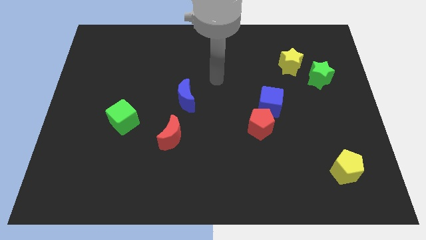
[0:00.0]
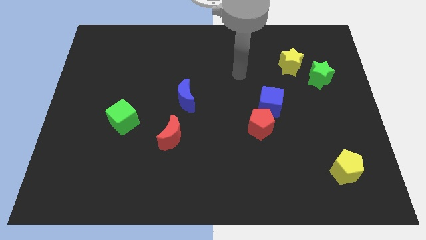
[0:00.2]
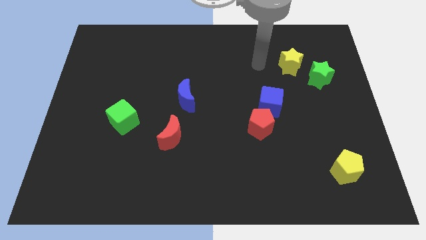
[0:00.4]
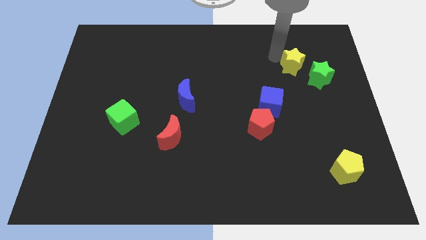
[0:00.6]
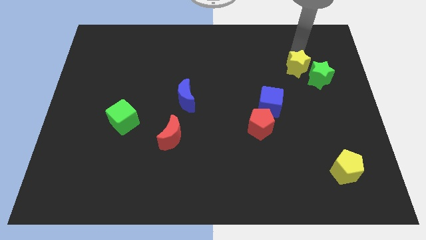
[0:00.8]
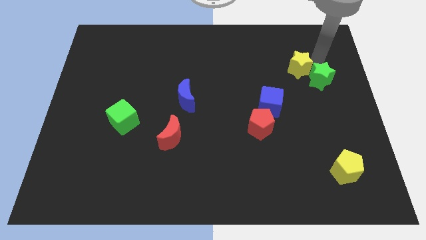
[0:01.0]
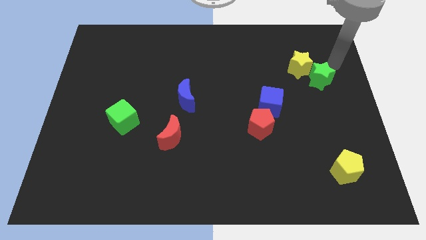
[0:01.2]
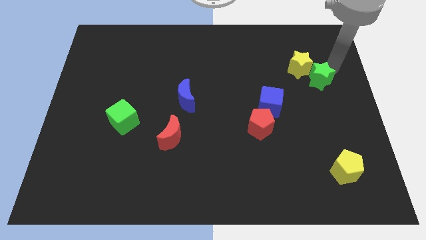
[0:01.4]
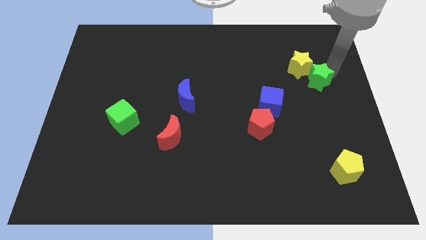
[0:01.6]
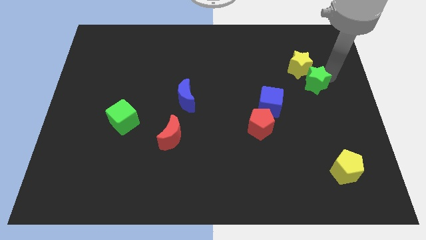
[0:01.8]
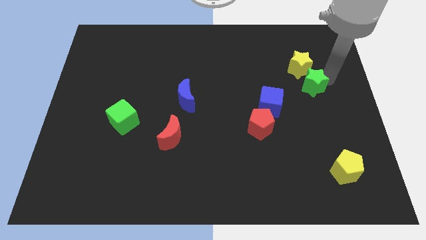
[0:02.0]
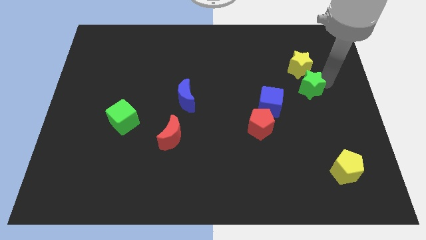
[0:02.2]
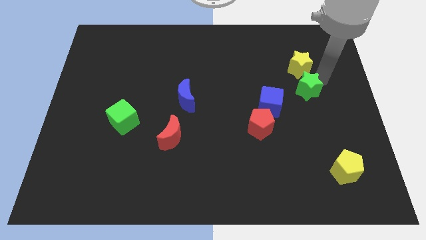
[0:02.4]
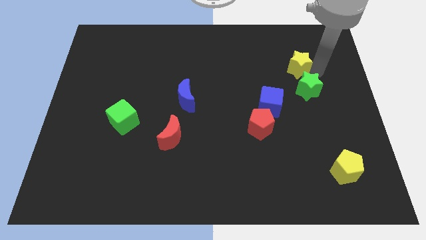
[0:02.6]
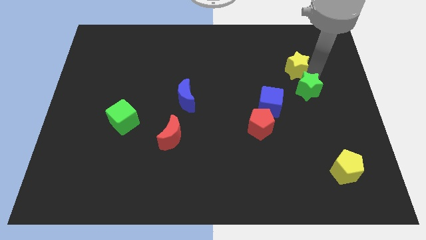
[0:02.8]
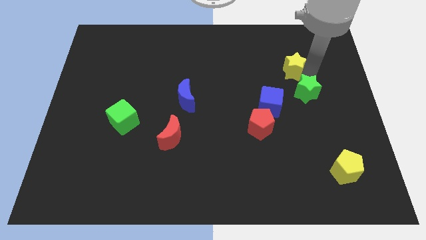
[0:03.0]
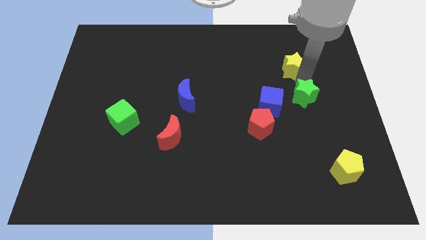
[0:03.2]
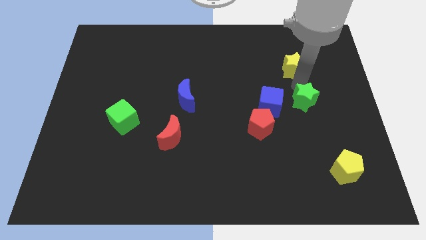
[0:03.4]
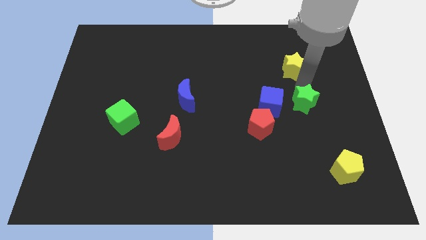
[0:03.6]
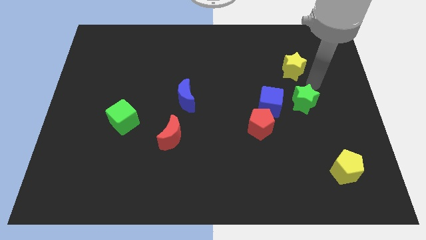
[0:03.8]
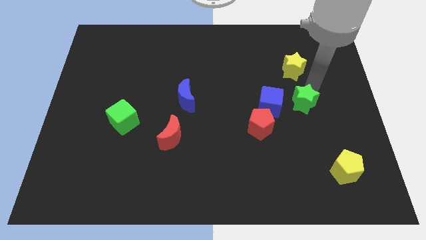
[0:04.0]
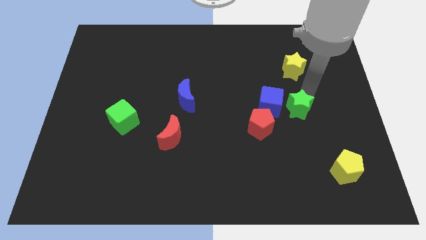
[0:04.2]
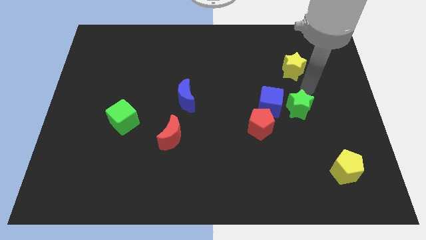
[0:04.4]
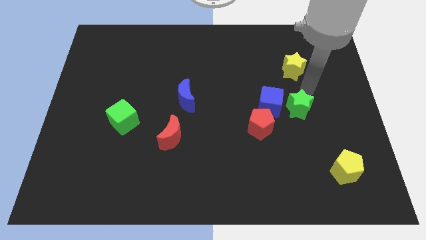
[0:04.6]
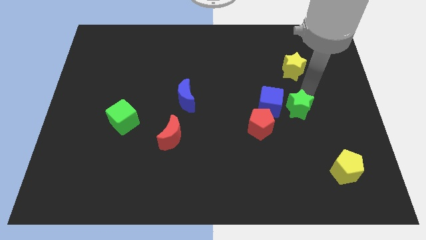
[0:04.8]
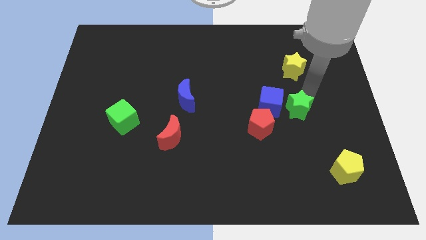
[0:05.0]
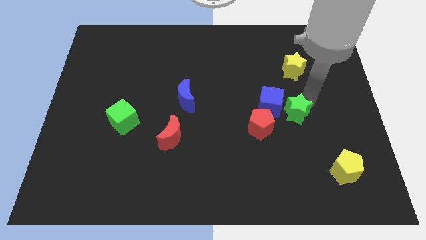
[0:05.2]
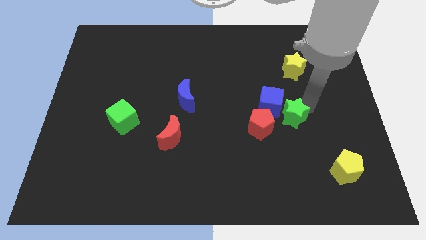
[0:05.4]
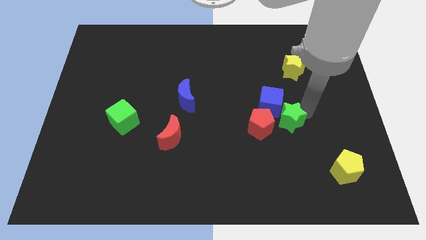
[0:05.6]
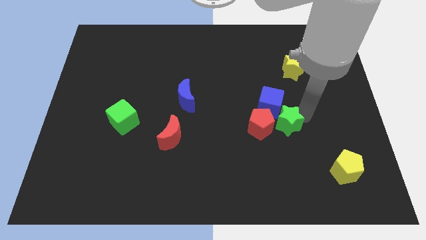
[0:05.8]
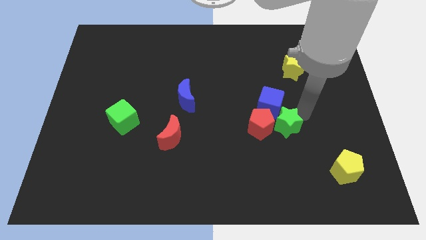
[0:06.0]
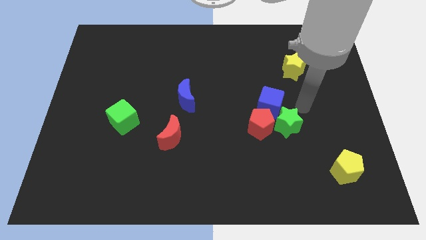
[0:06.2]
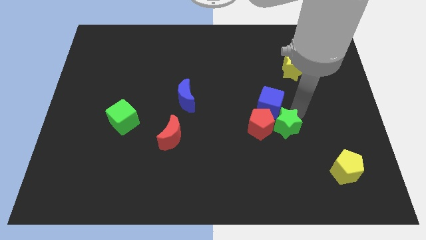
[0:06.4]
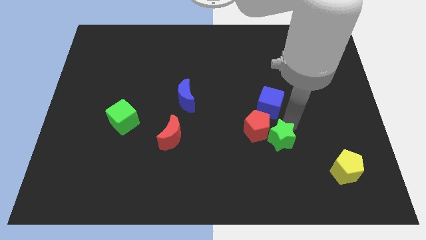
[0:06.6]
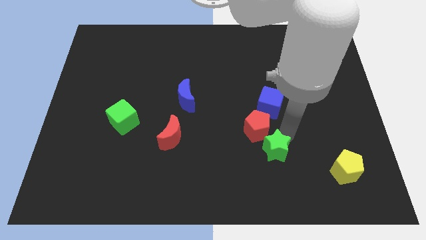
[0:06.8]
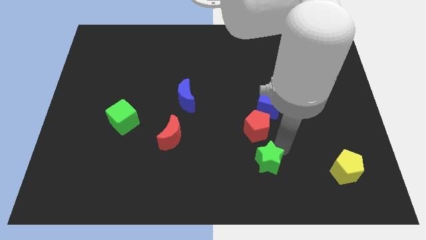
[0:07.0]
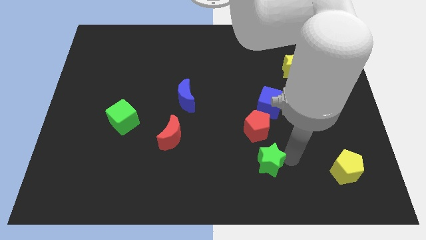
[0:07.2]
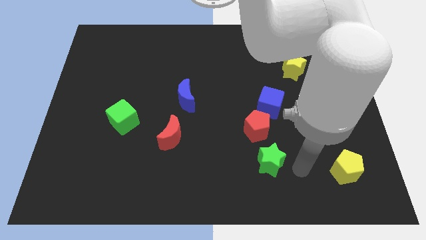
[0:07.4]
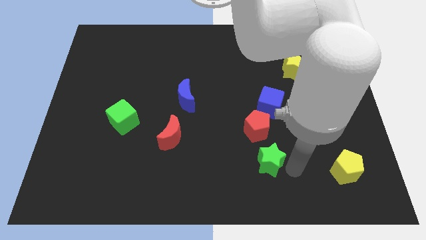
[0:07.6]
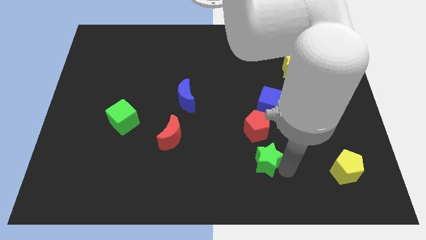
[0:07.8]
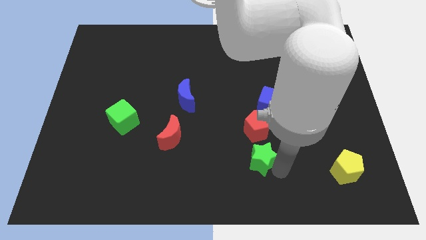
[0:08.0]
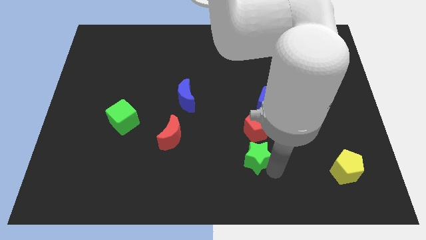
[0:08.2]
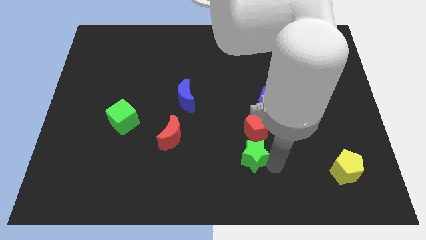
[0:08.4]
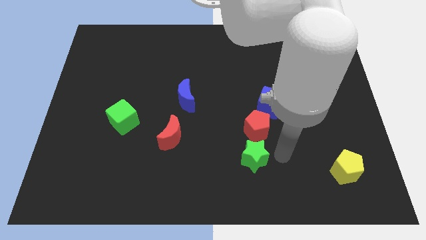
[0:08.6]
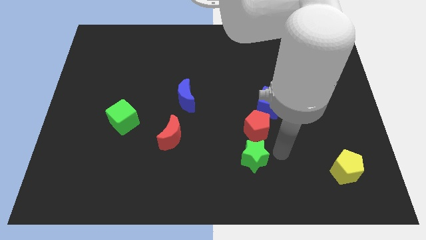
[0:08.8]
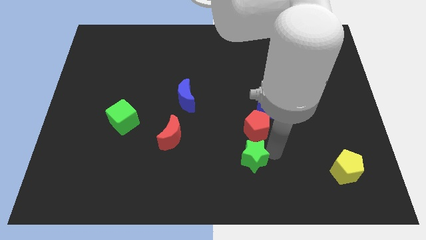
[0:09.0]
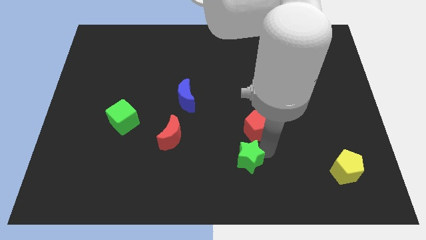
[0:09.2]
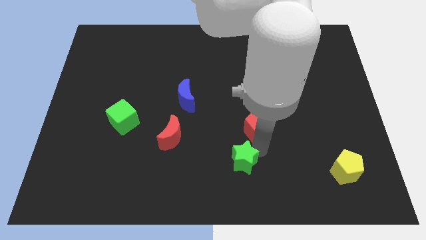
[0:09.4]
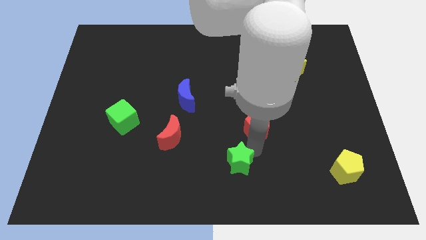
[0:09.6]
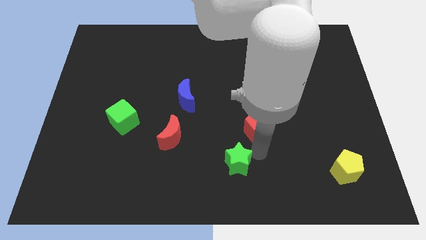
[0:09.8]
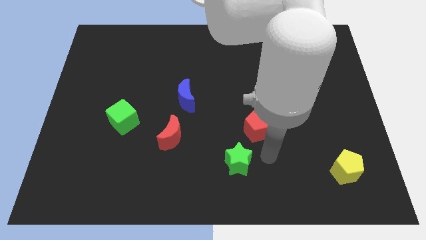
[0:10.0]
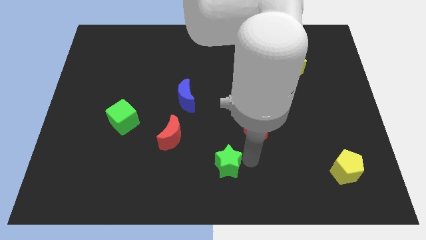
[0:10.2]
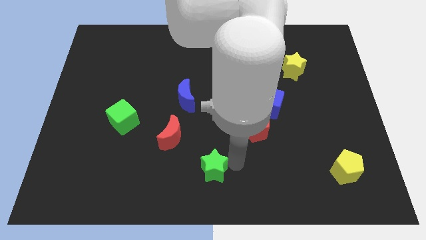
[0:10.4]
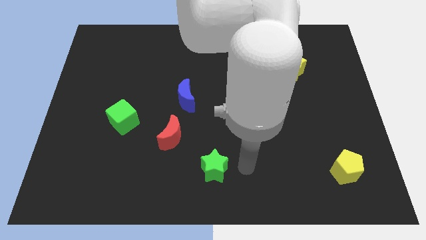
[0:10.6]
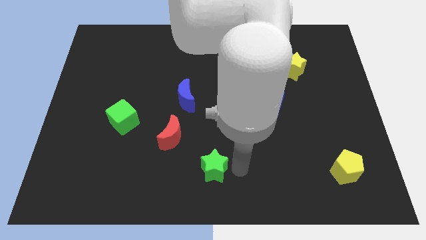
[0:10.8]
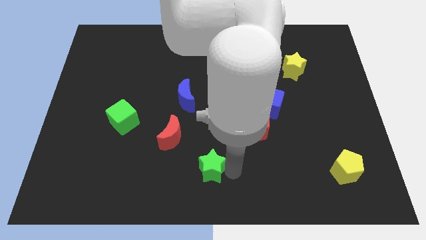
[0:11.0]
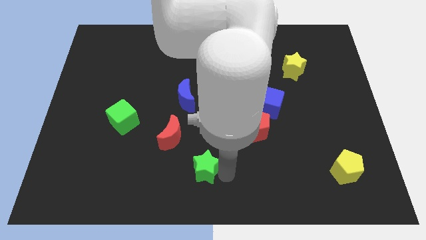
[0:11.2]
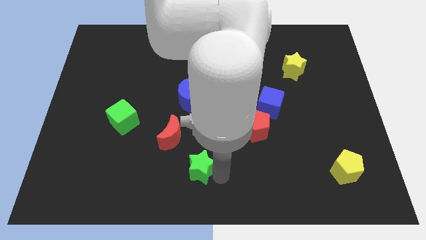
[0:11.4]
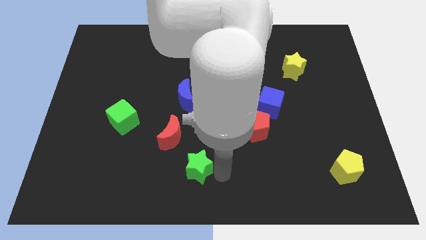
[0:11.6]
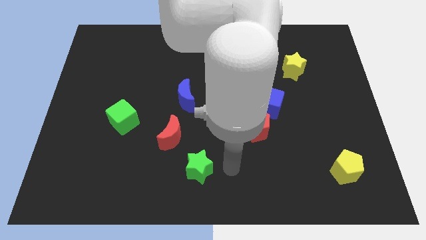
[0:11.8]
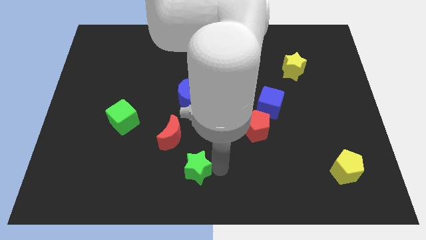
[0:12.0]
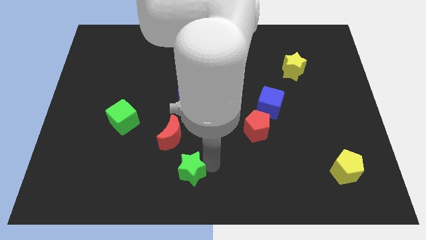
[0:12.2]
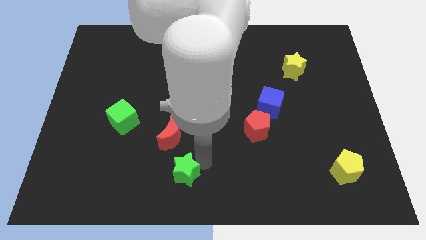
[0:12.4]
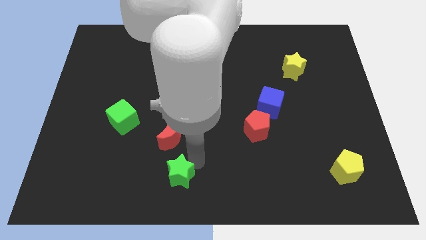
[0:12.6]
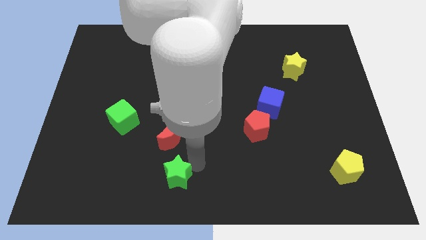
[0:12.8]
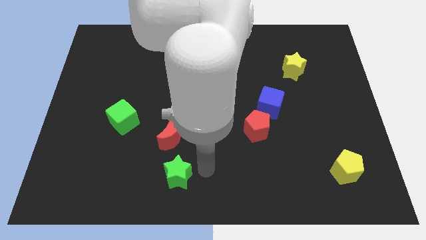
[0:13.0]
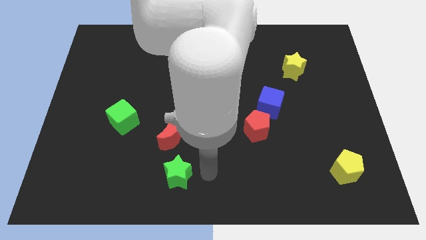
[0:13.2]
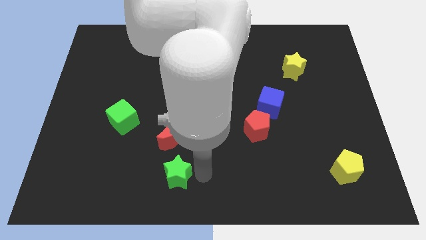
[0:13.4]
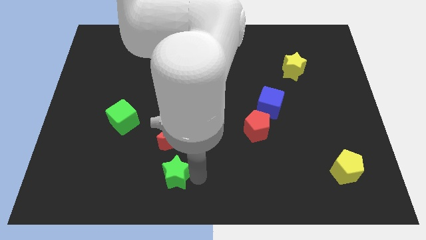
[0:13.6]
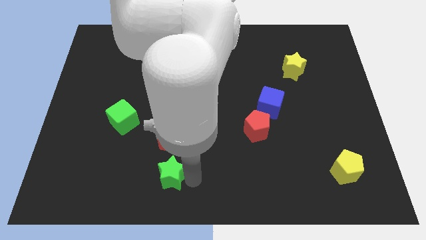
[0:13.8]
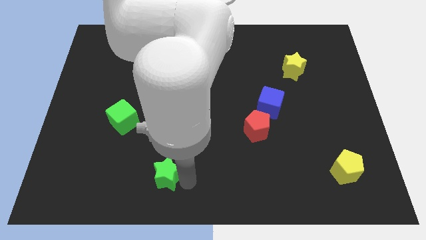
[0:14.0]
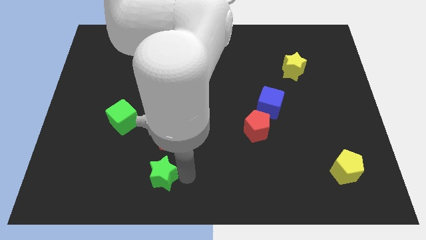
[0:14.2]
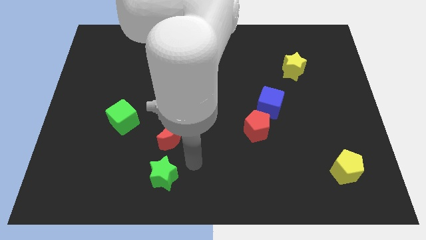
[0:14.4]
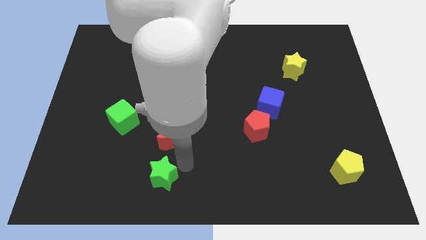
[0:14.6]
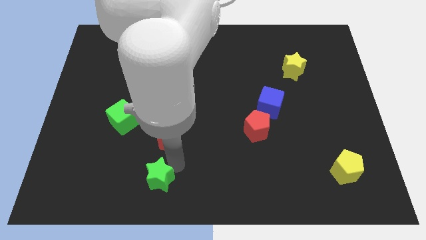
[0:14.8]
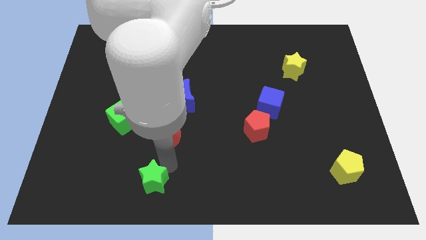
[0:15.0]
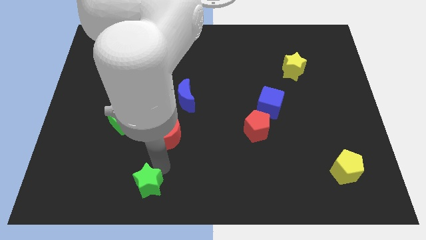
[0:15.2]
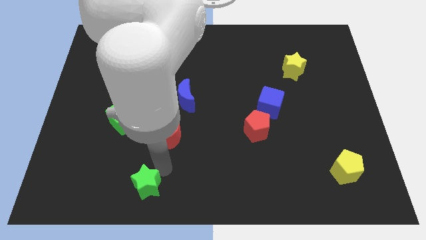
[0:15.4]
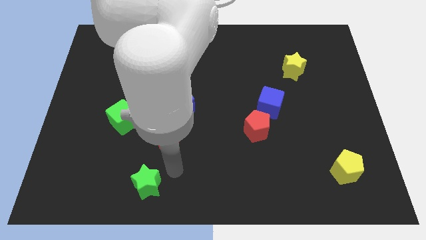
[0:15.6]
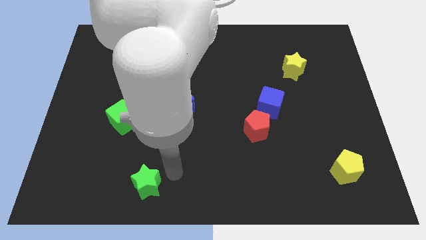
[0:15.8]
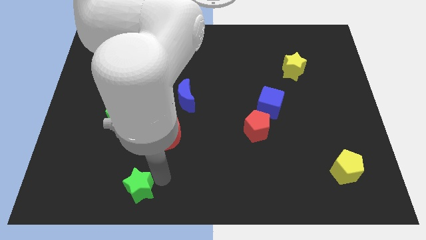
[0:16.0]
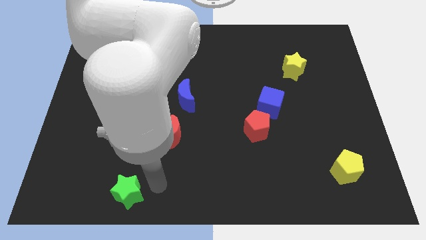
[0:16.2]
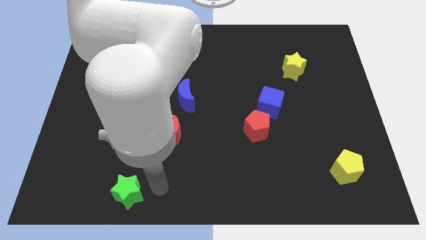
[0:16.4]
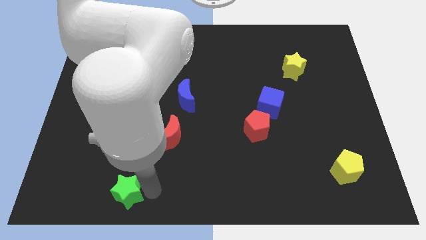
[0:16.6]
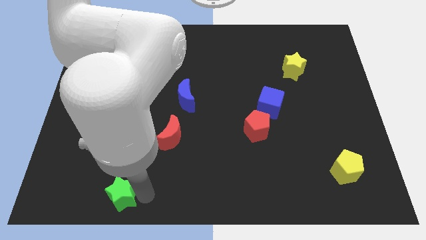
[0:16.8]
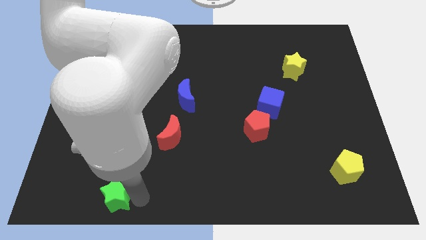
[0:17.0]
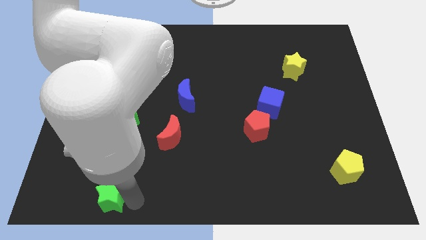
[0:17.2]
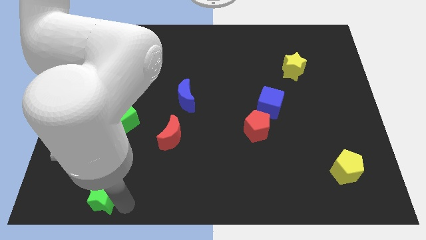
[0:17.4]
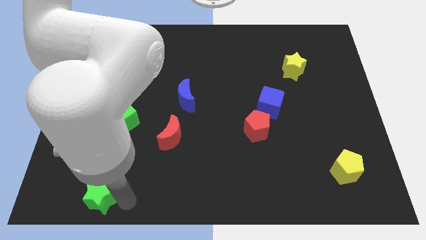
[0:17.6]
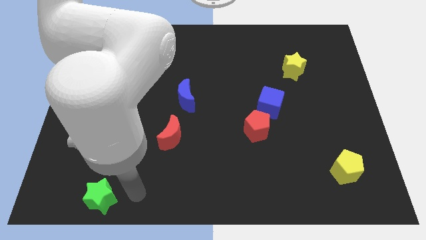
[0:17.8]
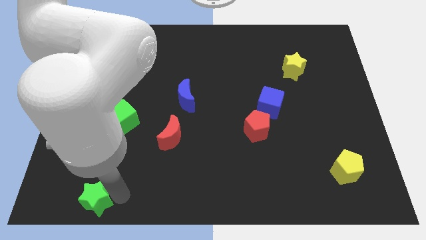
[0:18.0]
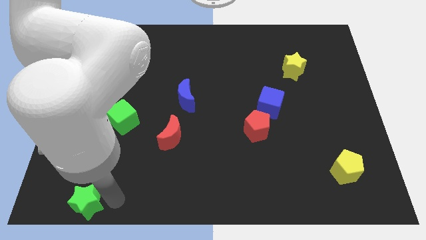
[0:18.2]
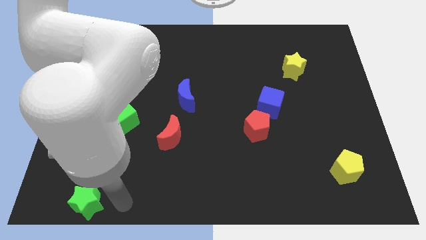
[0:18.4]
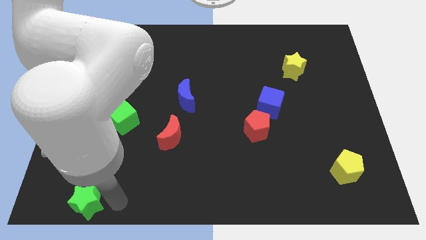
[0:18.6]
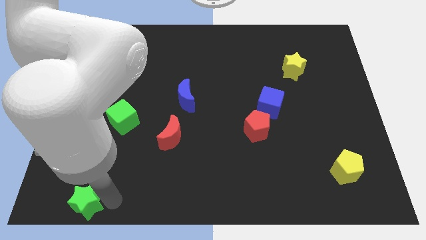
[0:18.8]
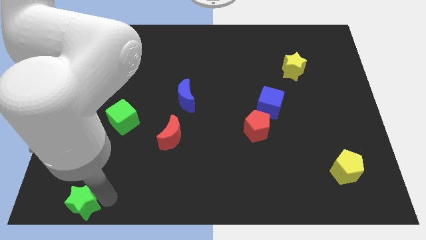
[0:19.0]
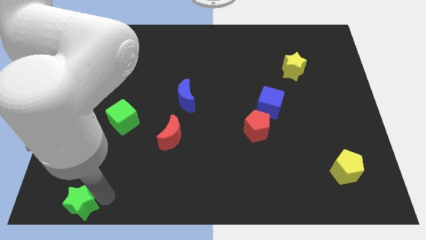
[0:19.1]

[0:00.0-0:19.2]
slide the green star to the bottom left of the board
